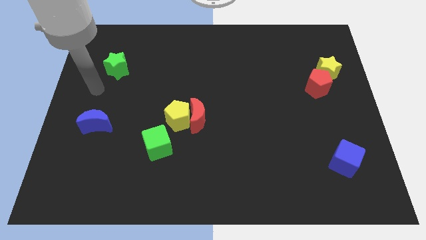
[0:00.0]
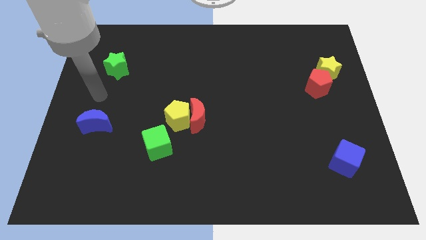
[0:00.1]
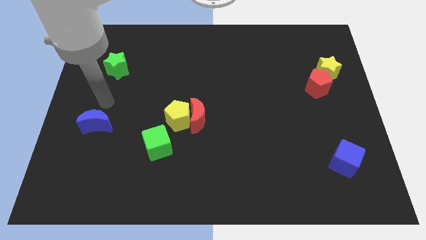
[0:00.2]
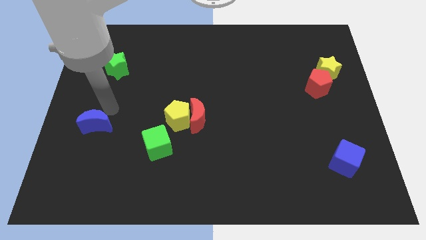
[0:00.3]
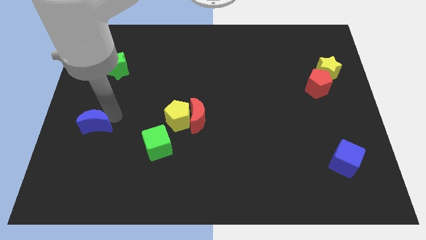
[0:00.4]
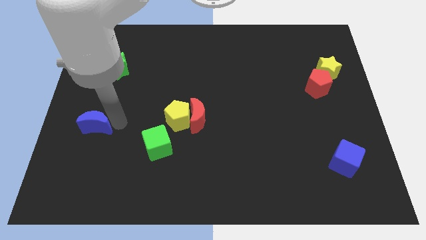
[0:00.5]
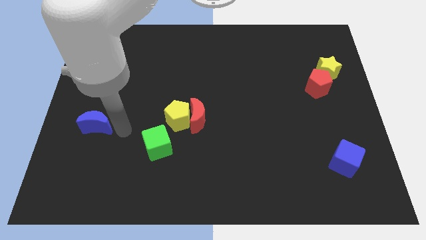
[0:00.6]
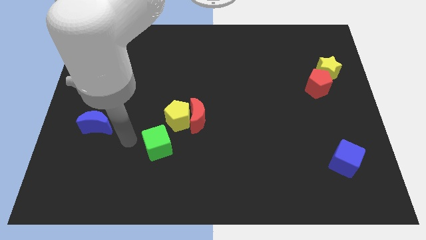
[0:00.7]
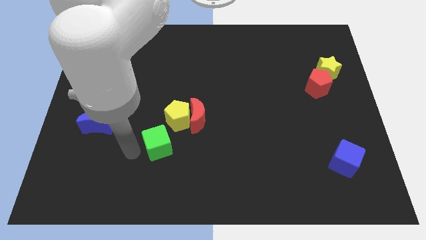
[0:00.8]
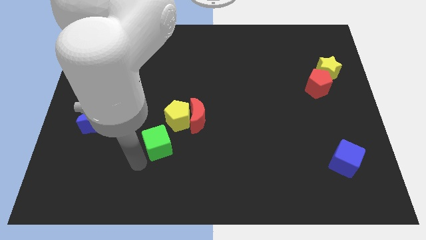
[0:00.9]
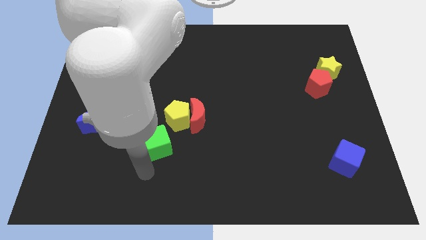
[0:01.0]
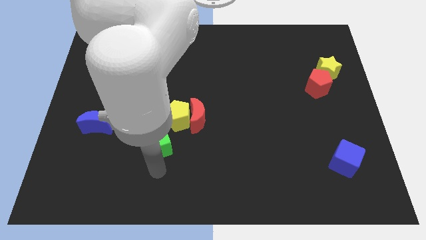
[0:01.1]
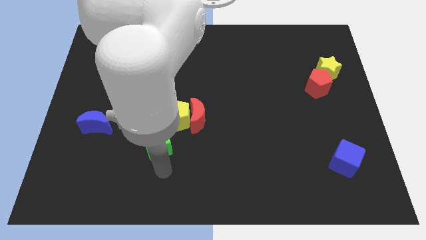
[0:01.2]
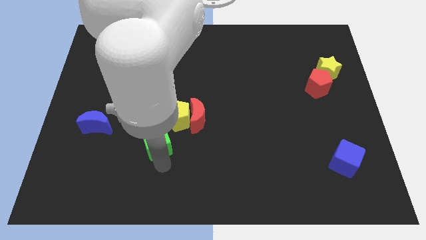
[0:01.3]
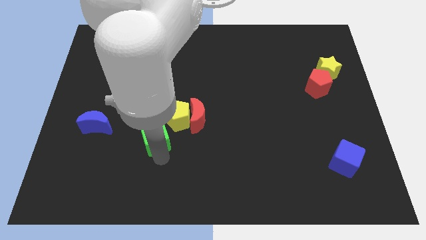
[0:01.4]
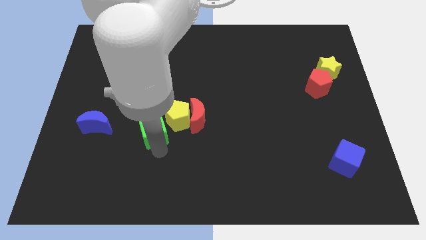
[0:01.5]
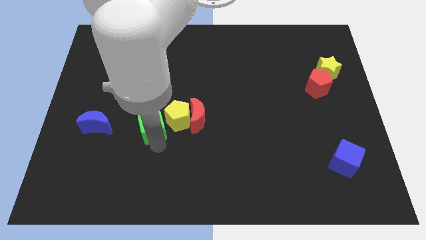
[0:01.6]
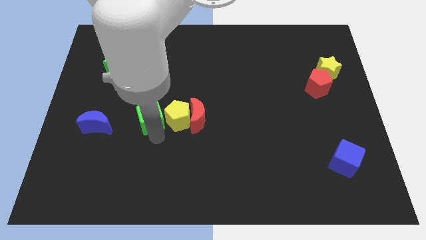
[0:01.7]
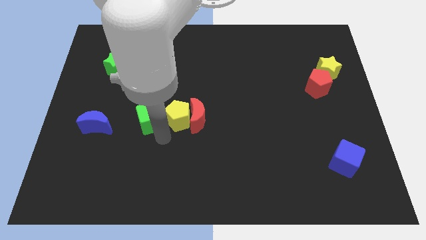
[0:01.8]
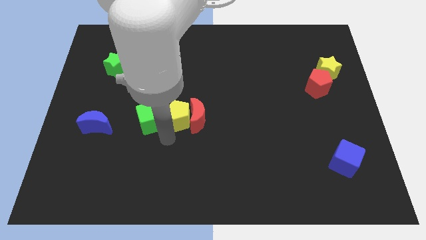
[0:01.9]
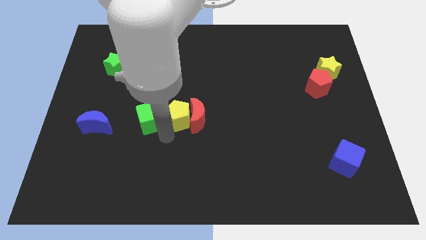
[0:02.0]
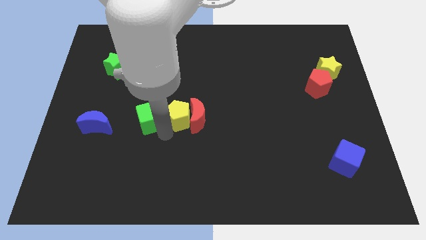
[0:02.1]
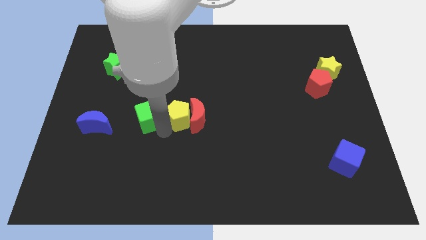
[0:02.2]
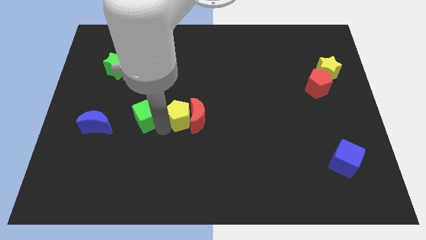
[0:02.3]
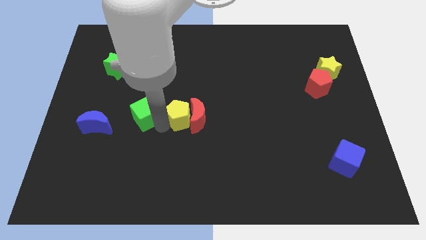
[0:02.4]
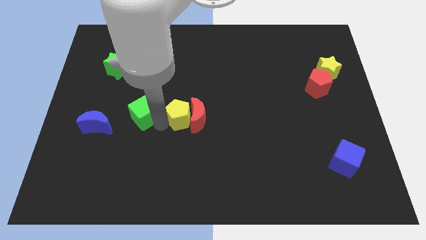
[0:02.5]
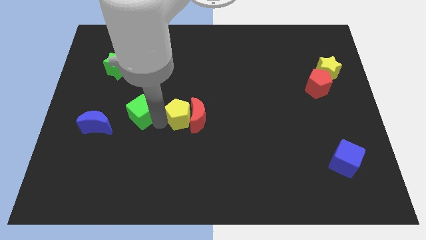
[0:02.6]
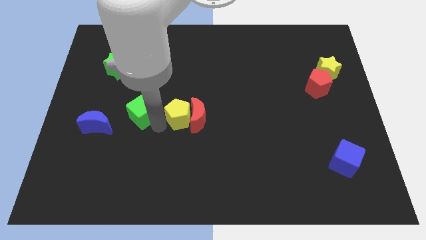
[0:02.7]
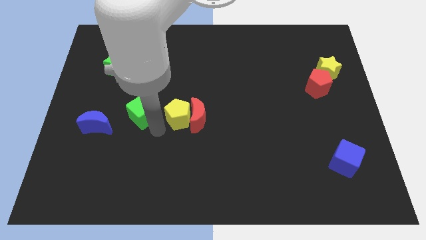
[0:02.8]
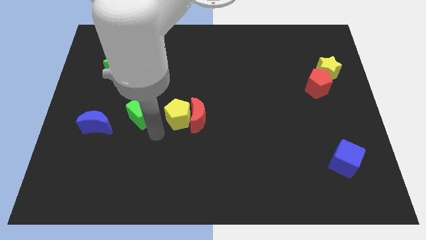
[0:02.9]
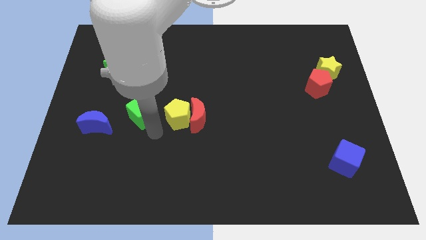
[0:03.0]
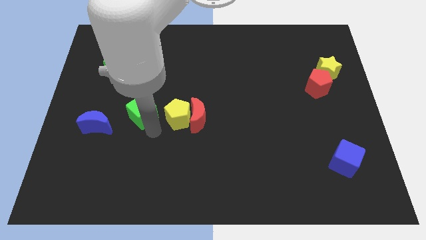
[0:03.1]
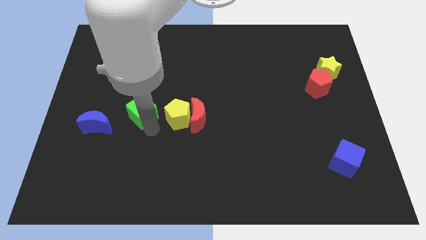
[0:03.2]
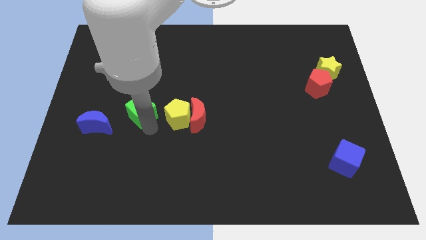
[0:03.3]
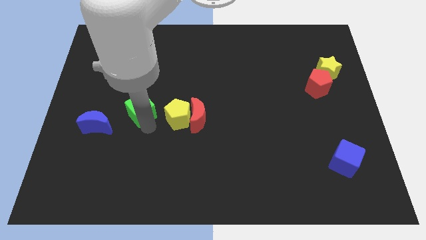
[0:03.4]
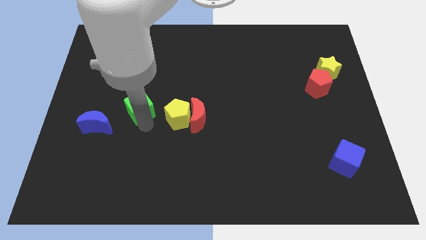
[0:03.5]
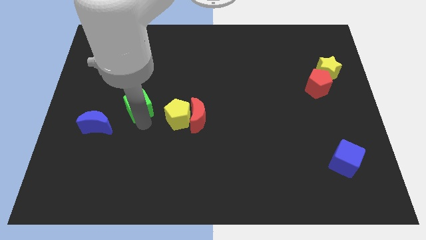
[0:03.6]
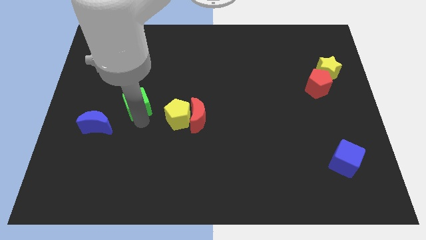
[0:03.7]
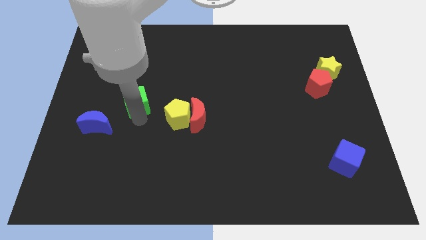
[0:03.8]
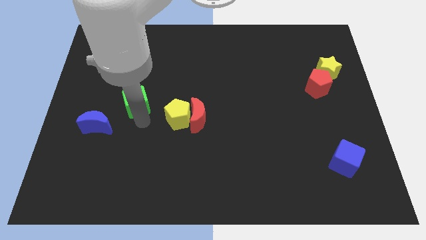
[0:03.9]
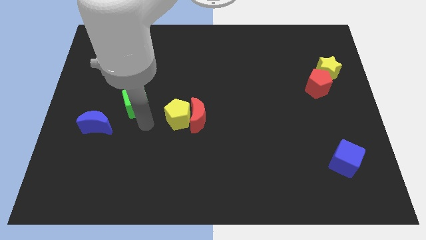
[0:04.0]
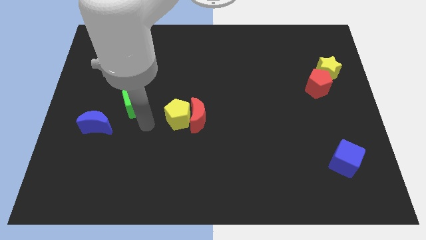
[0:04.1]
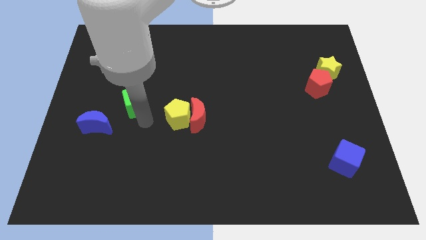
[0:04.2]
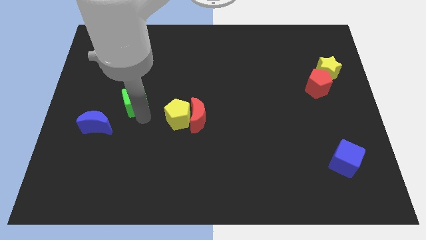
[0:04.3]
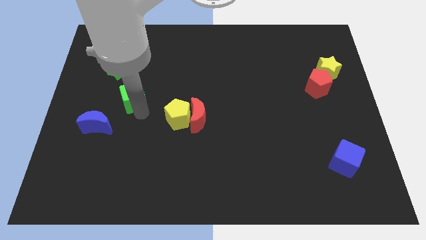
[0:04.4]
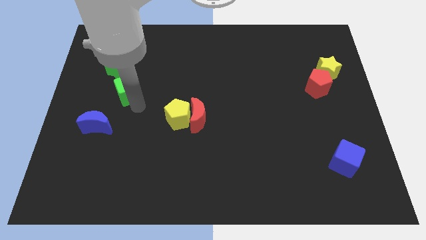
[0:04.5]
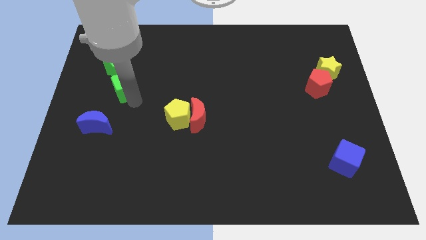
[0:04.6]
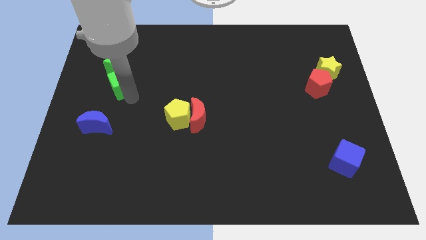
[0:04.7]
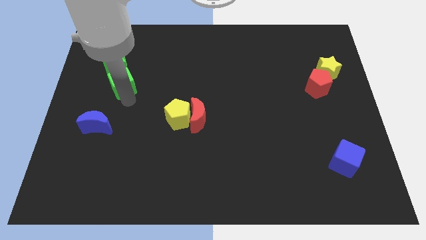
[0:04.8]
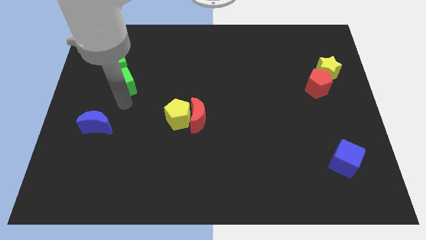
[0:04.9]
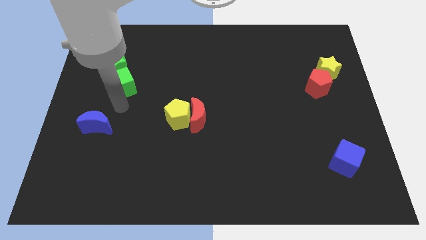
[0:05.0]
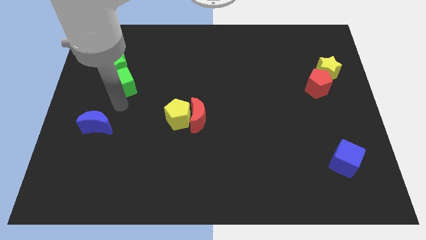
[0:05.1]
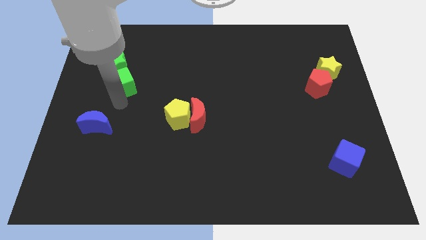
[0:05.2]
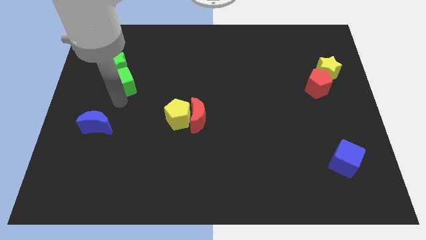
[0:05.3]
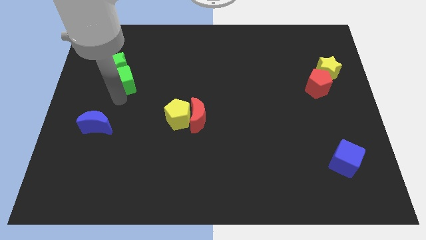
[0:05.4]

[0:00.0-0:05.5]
push the green cube close to the green star

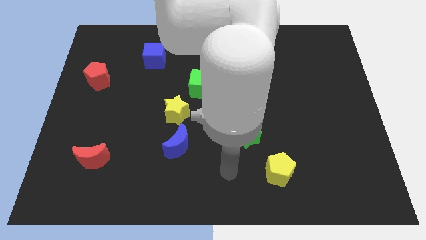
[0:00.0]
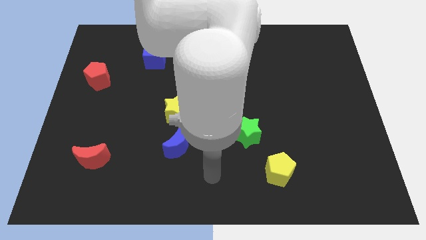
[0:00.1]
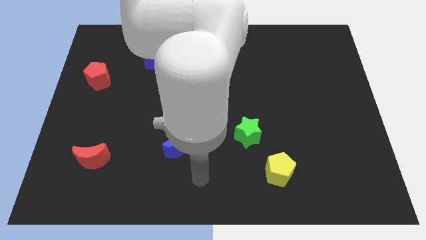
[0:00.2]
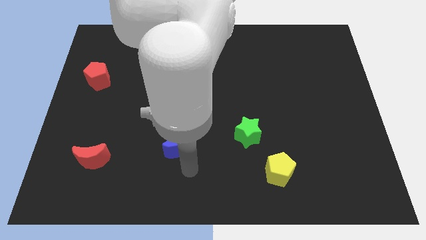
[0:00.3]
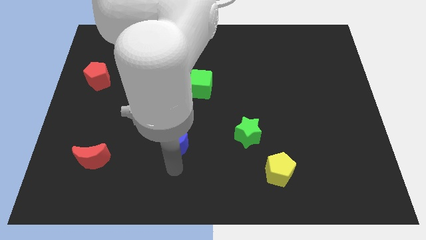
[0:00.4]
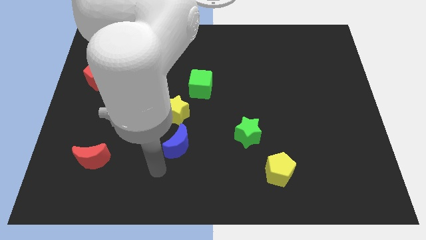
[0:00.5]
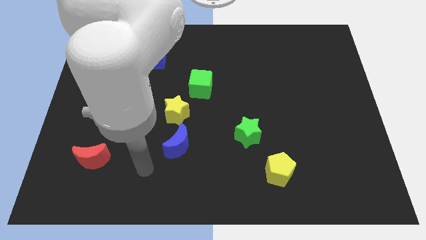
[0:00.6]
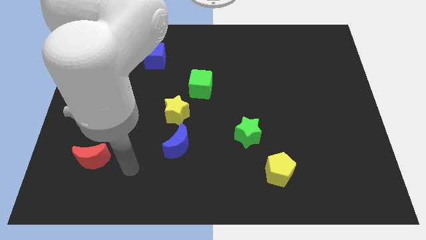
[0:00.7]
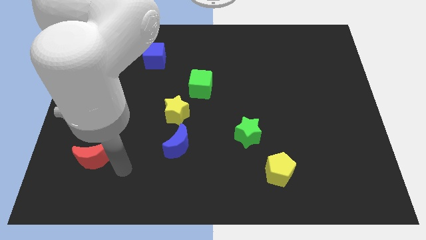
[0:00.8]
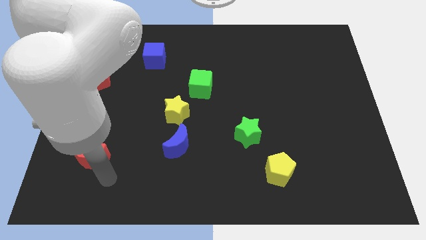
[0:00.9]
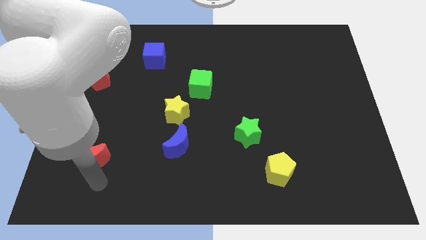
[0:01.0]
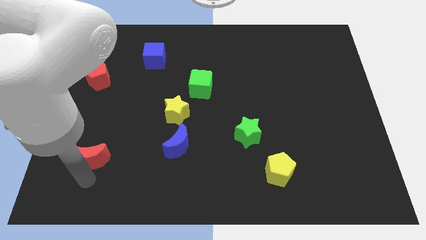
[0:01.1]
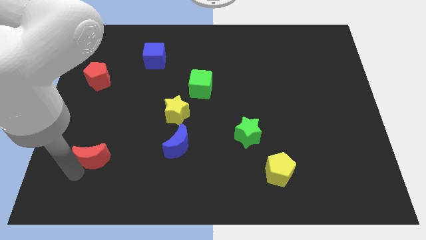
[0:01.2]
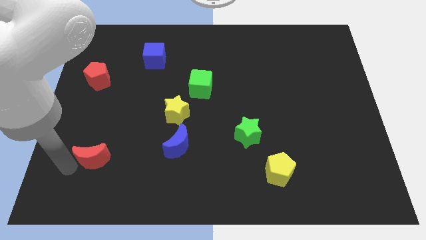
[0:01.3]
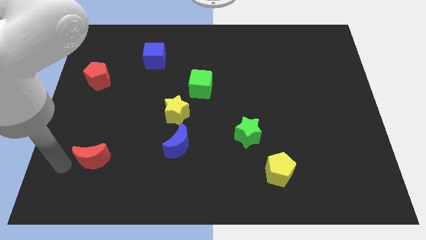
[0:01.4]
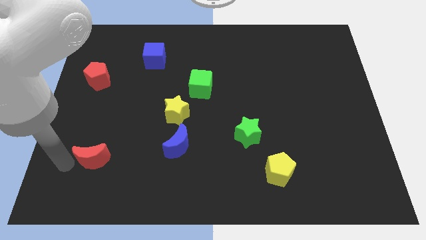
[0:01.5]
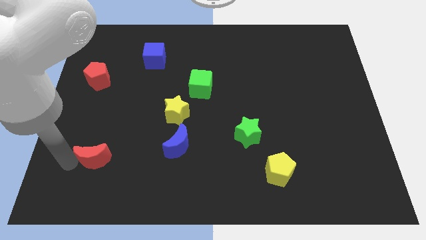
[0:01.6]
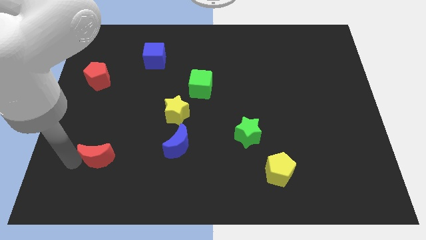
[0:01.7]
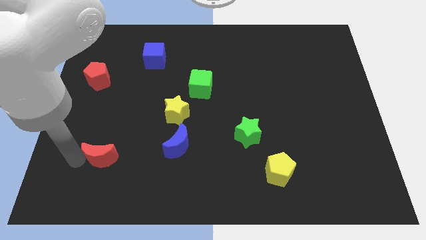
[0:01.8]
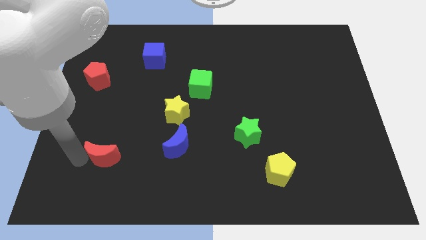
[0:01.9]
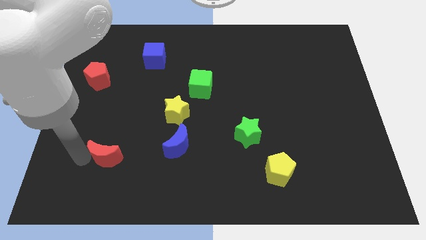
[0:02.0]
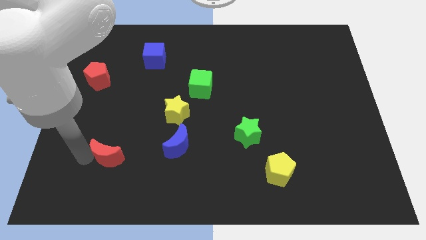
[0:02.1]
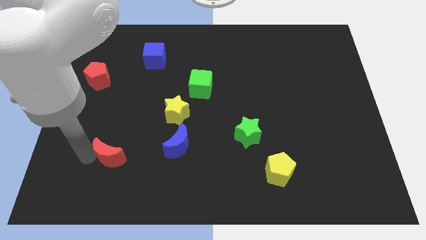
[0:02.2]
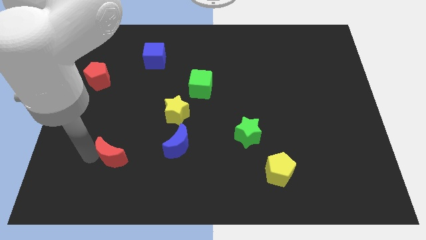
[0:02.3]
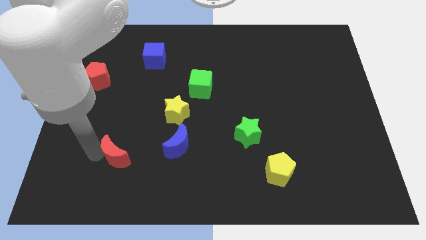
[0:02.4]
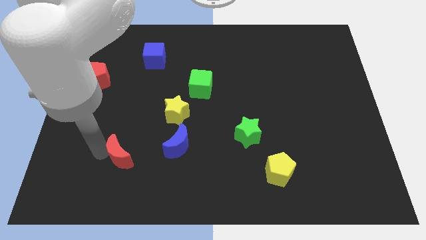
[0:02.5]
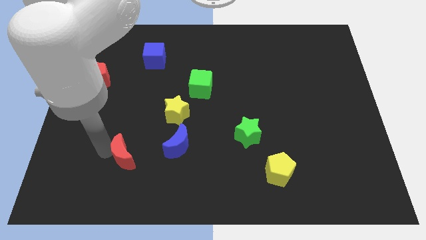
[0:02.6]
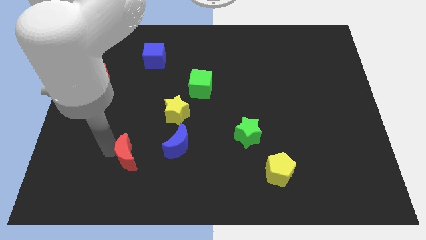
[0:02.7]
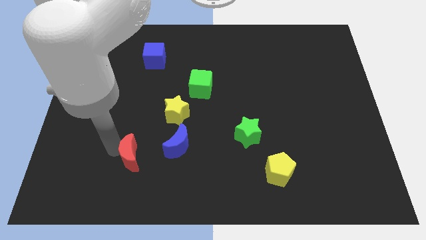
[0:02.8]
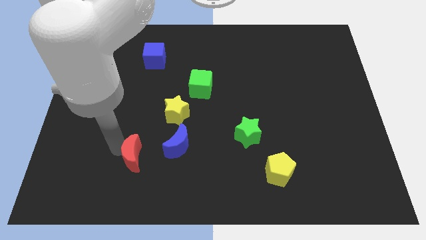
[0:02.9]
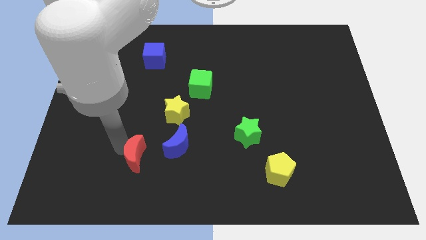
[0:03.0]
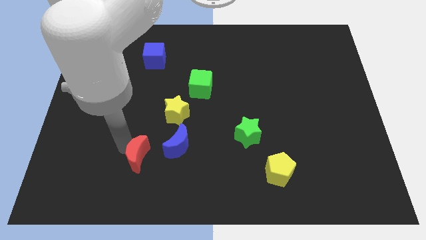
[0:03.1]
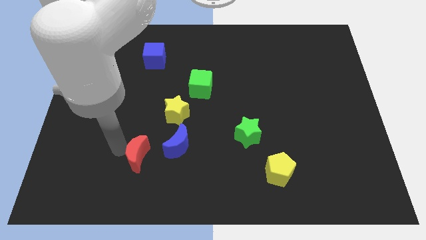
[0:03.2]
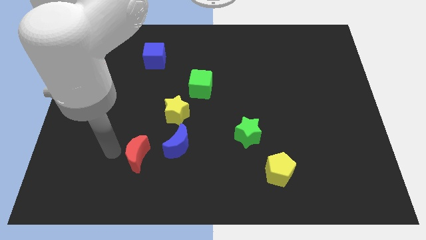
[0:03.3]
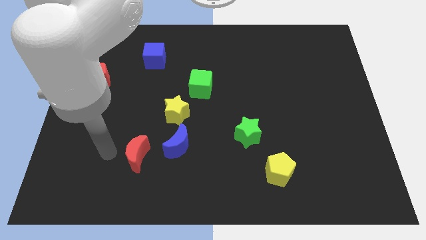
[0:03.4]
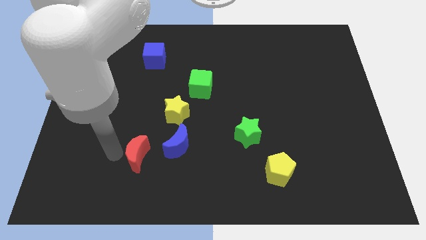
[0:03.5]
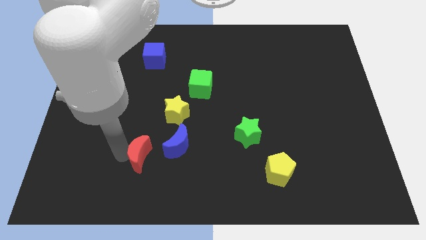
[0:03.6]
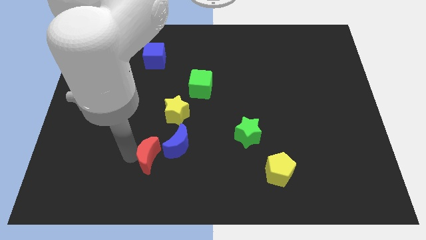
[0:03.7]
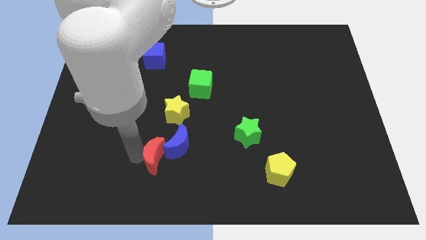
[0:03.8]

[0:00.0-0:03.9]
push the red moon to the blue moon
